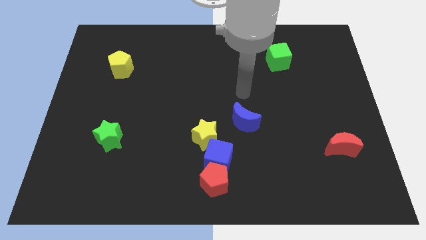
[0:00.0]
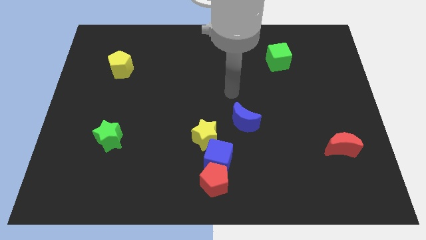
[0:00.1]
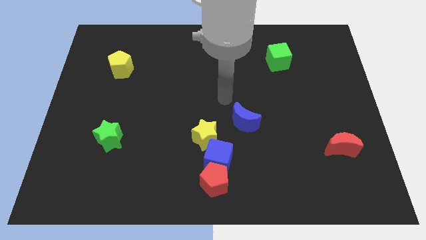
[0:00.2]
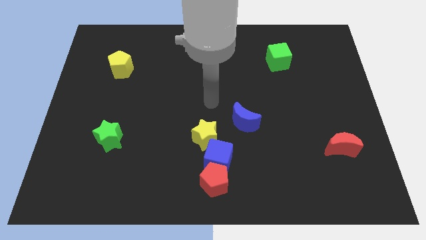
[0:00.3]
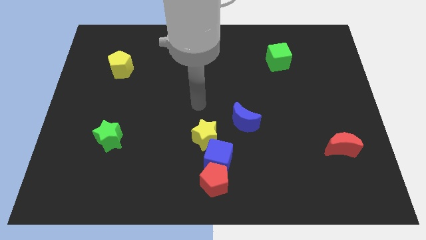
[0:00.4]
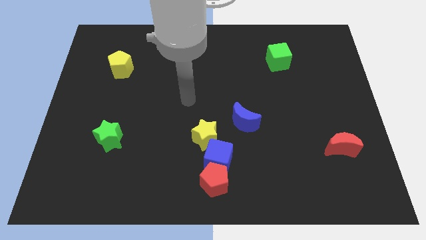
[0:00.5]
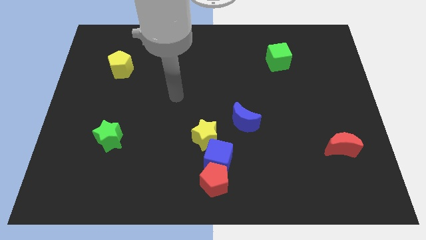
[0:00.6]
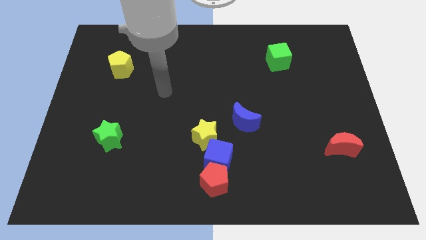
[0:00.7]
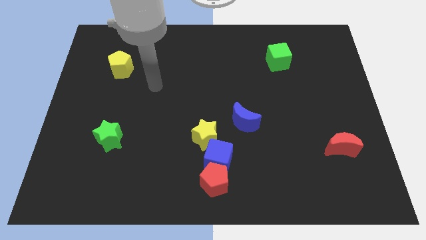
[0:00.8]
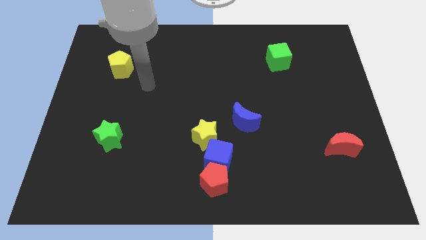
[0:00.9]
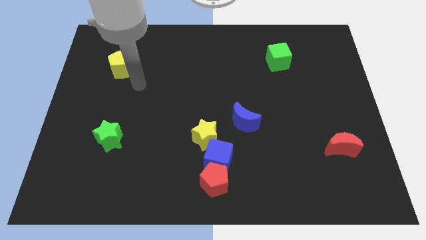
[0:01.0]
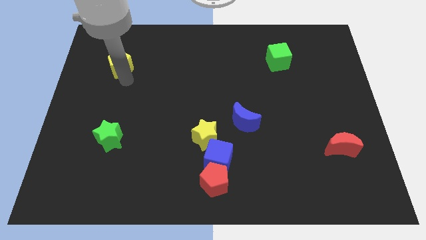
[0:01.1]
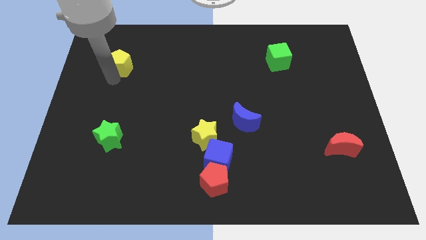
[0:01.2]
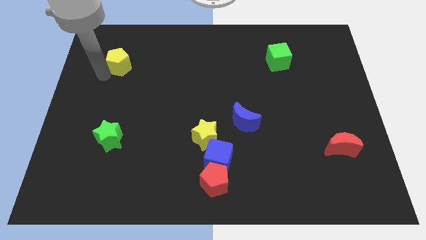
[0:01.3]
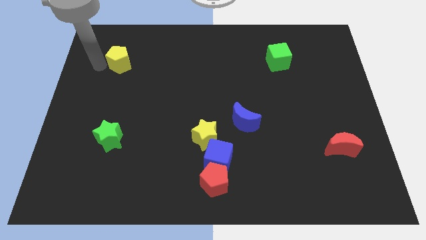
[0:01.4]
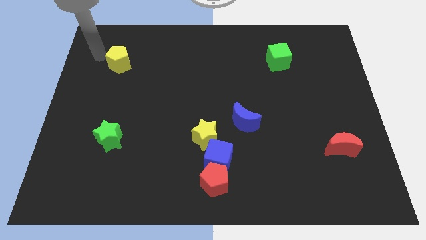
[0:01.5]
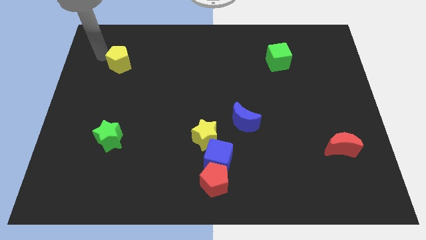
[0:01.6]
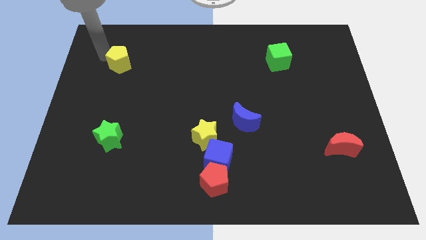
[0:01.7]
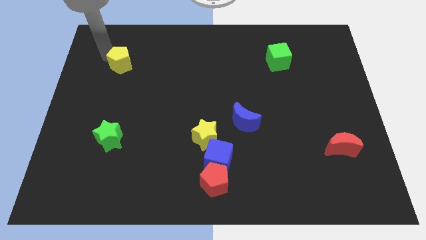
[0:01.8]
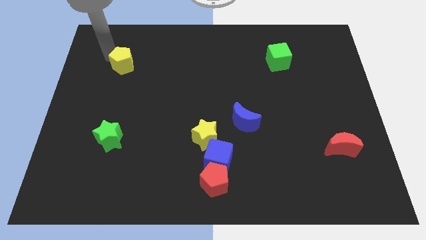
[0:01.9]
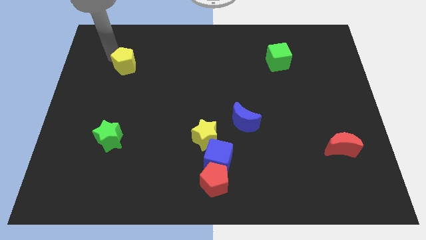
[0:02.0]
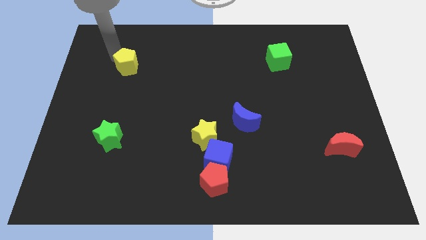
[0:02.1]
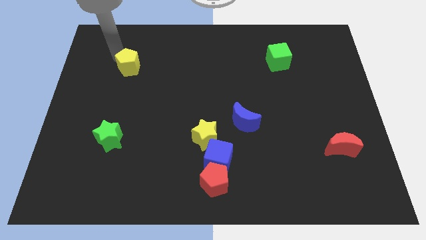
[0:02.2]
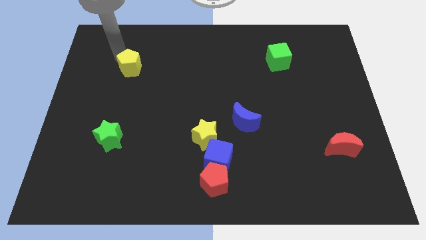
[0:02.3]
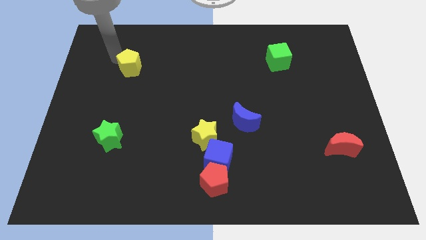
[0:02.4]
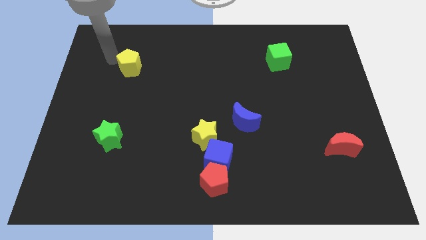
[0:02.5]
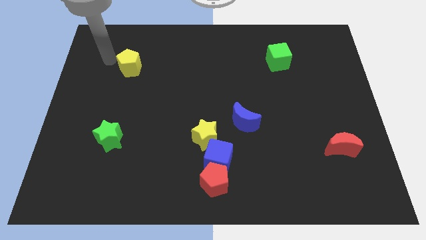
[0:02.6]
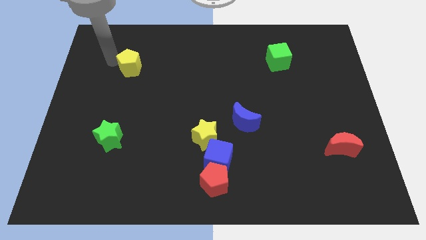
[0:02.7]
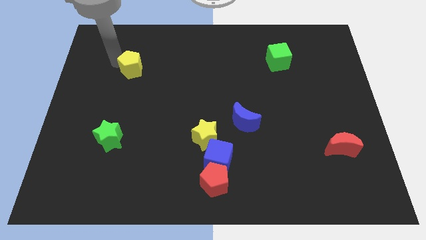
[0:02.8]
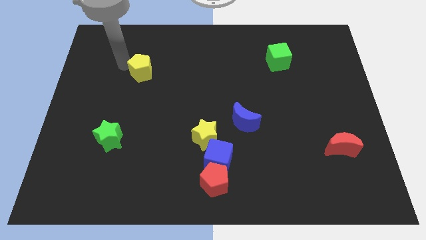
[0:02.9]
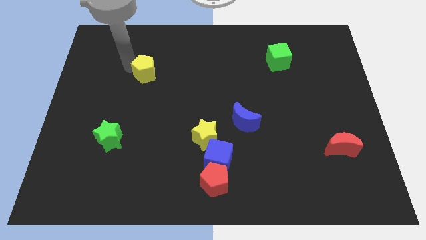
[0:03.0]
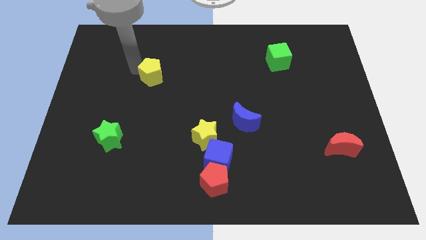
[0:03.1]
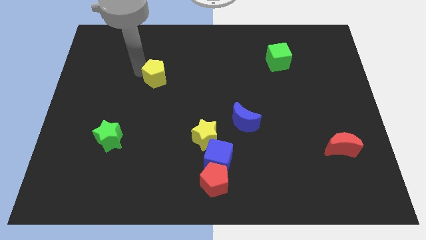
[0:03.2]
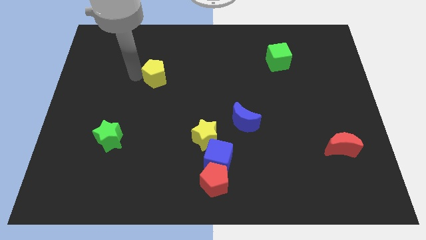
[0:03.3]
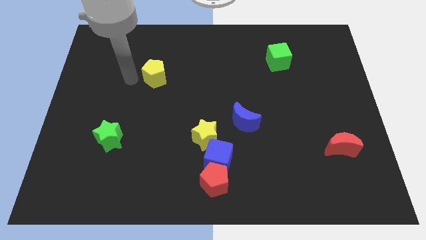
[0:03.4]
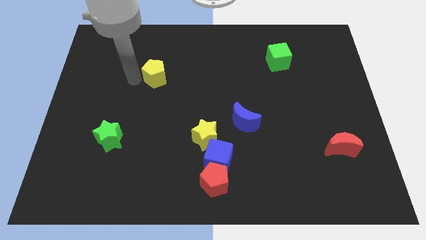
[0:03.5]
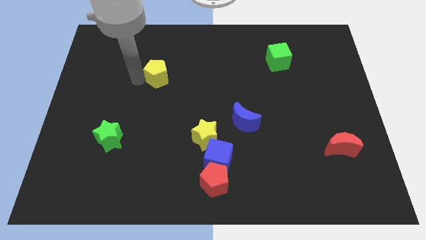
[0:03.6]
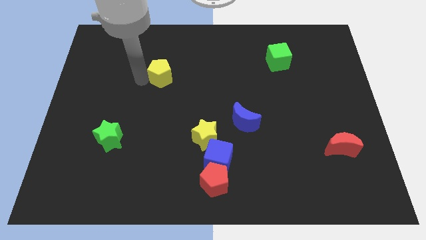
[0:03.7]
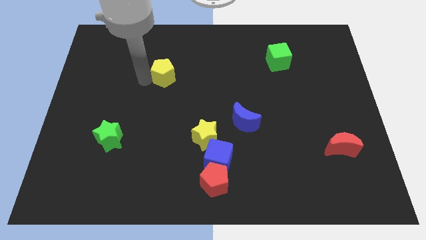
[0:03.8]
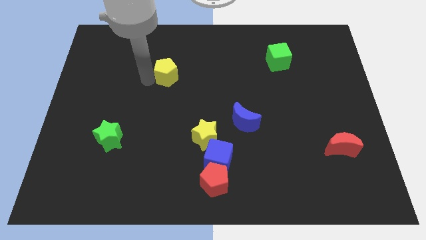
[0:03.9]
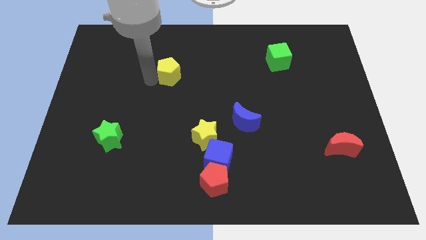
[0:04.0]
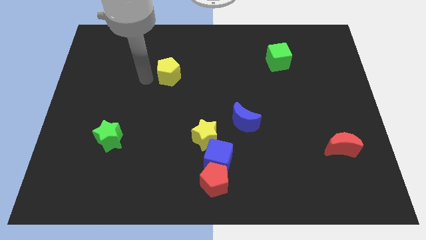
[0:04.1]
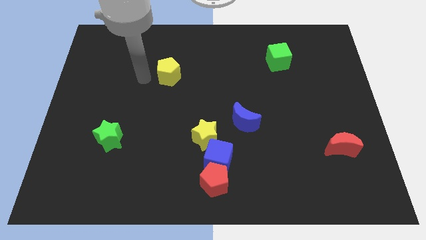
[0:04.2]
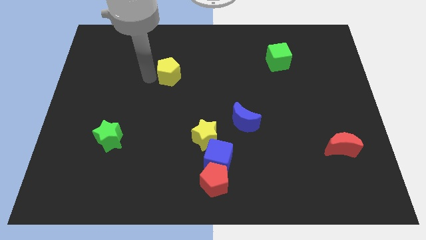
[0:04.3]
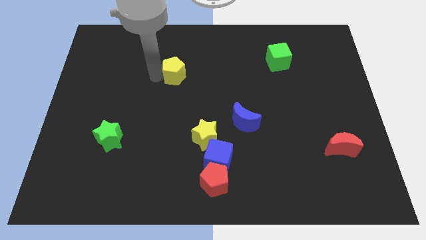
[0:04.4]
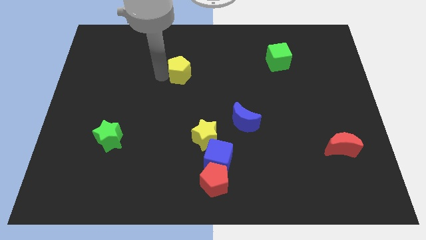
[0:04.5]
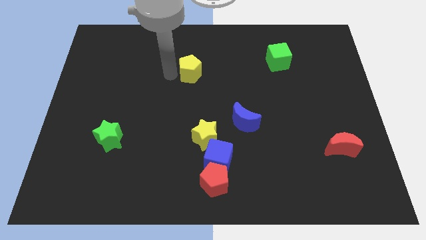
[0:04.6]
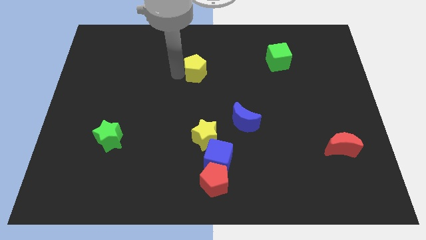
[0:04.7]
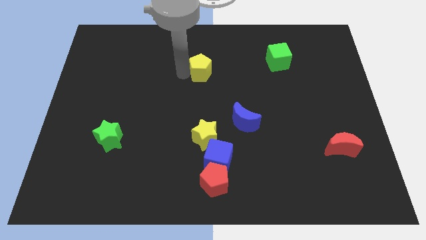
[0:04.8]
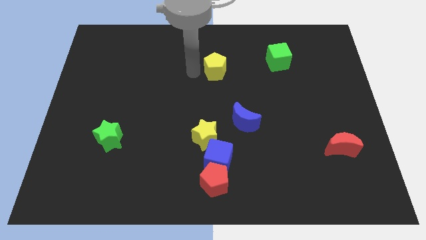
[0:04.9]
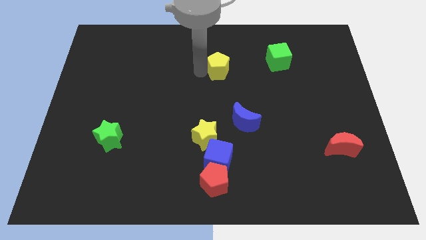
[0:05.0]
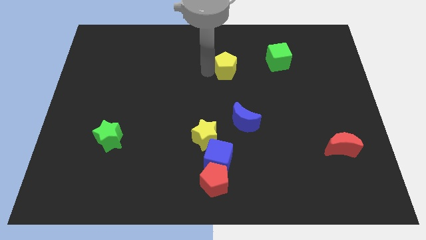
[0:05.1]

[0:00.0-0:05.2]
push the yellow pentagon just left of the green cube

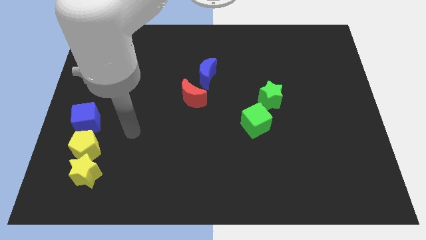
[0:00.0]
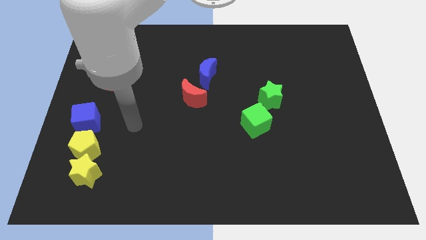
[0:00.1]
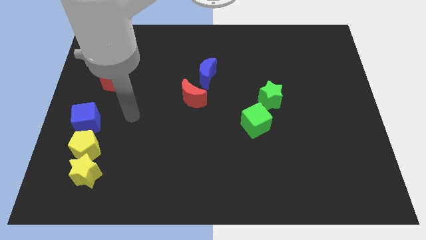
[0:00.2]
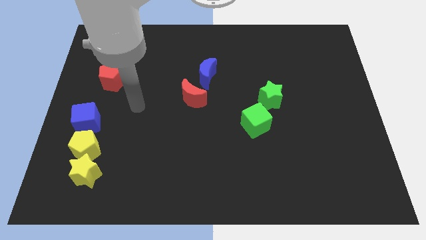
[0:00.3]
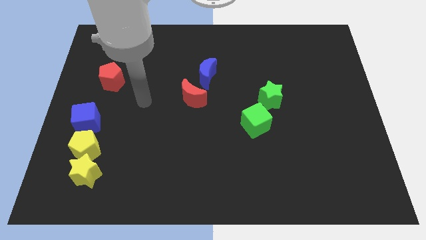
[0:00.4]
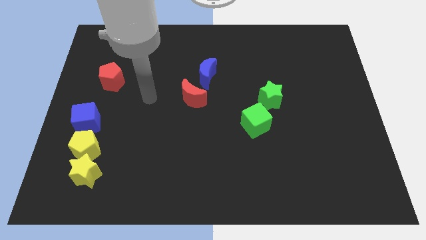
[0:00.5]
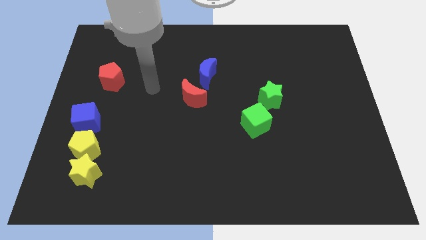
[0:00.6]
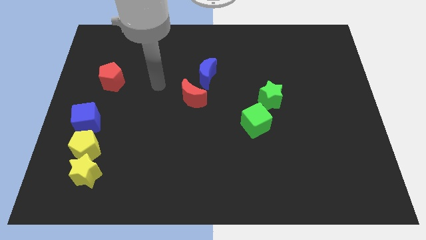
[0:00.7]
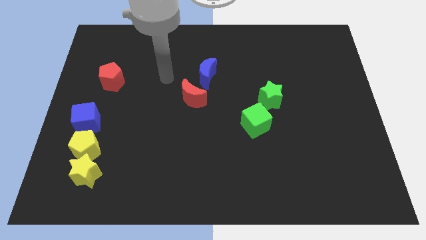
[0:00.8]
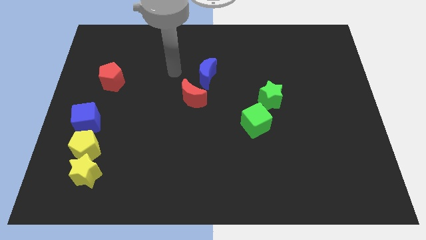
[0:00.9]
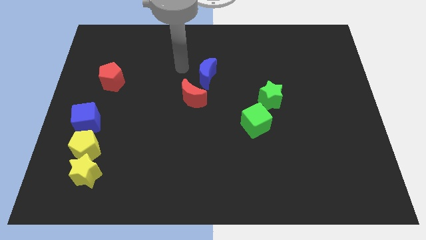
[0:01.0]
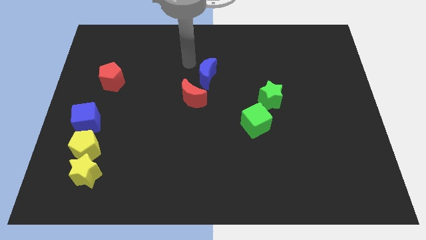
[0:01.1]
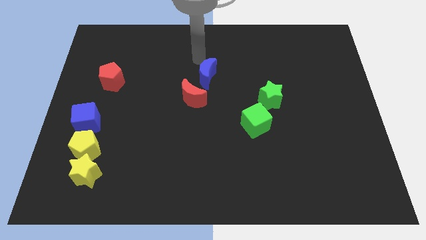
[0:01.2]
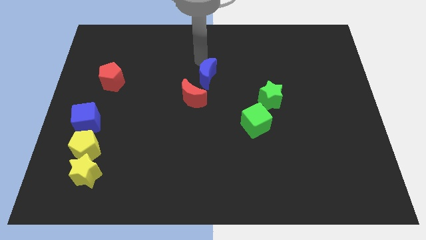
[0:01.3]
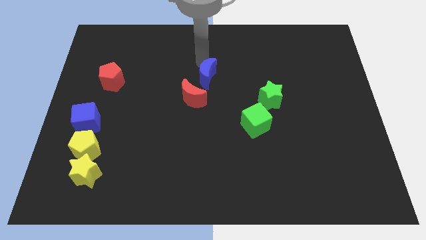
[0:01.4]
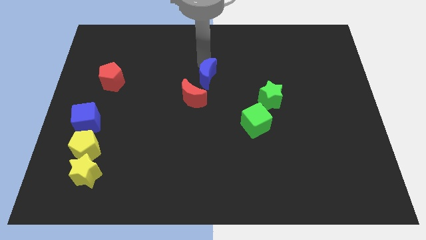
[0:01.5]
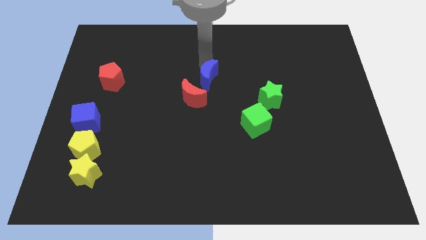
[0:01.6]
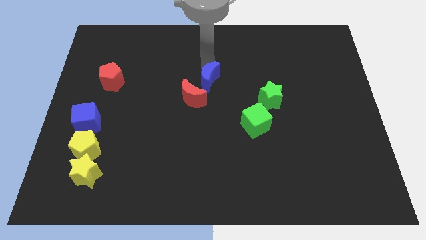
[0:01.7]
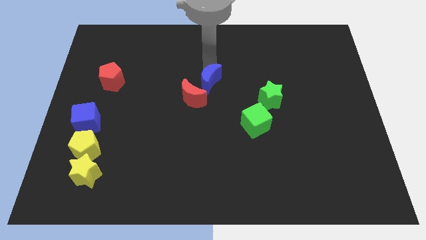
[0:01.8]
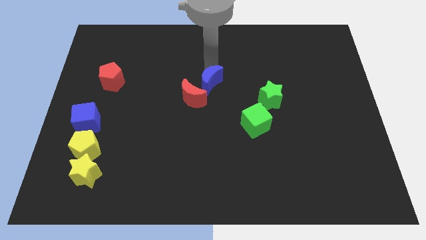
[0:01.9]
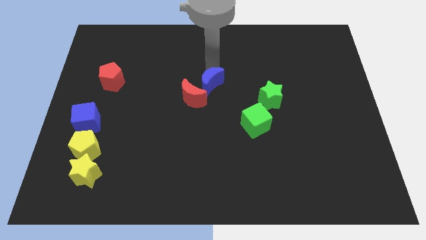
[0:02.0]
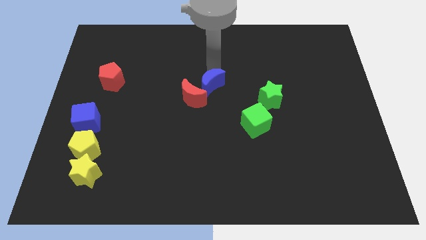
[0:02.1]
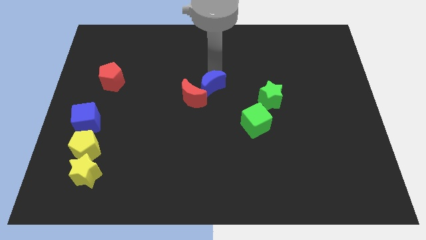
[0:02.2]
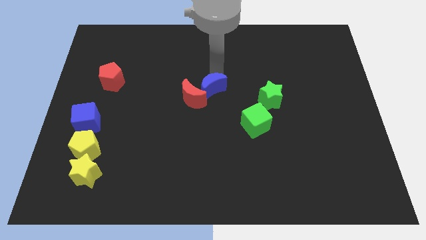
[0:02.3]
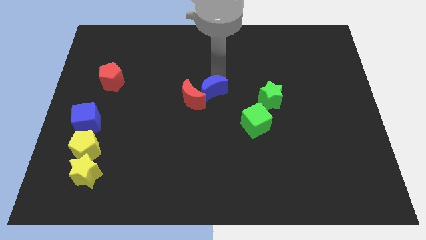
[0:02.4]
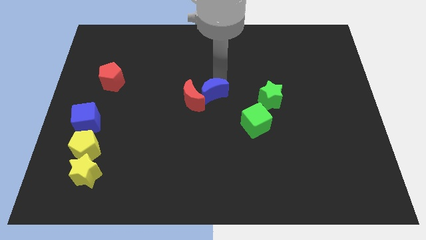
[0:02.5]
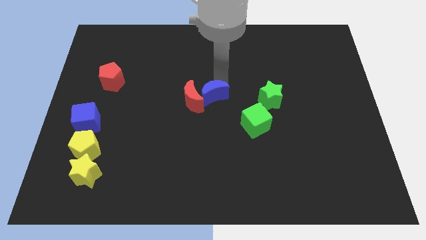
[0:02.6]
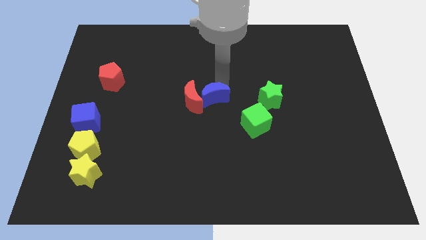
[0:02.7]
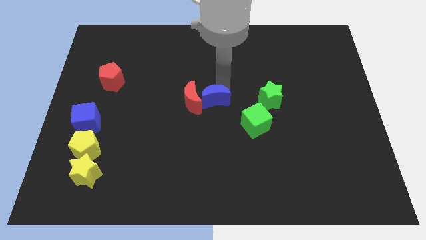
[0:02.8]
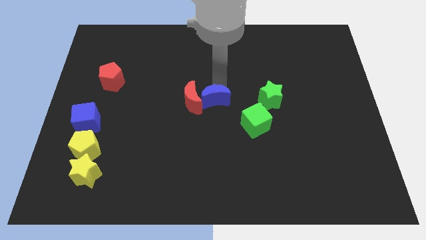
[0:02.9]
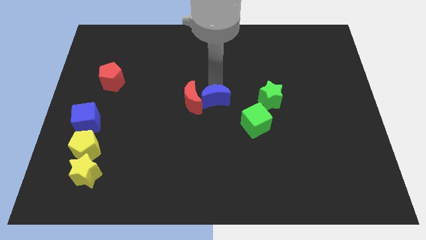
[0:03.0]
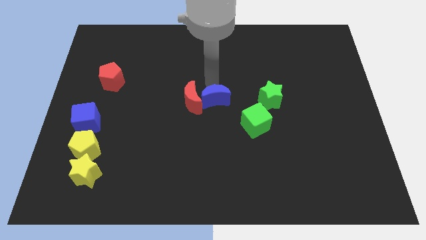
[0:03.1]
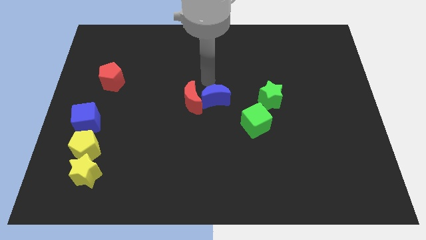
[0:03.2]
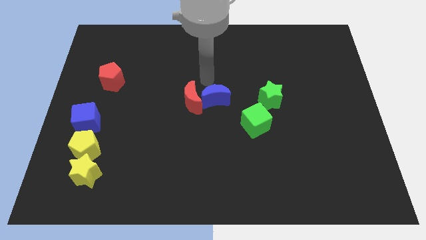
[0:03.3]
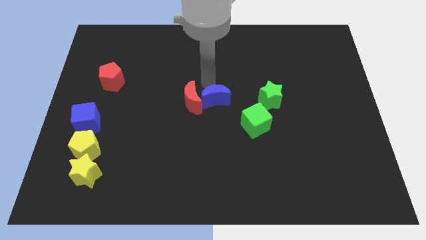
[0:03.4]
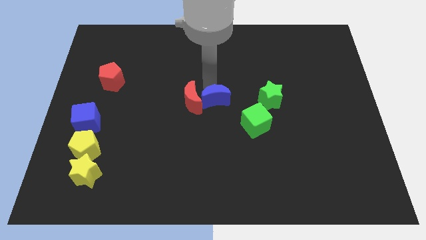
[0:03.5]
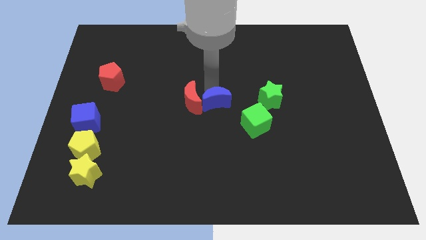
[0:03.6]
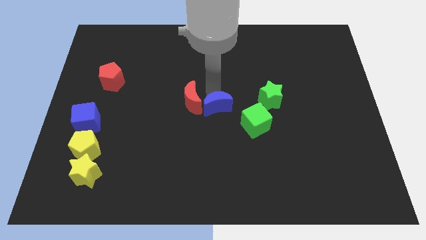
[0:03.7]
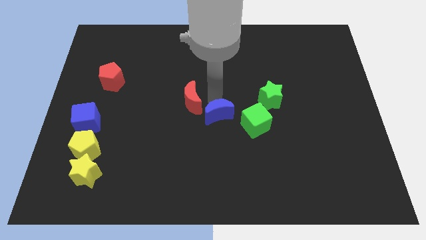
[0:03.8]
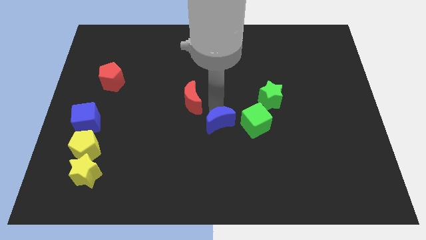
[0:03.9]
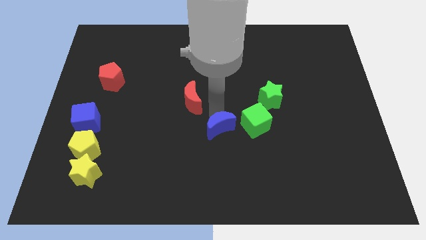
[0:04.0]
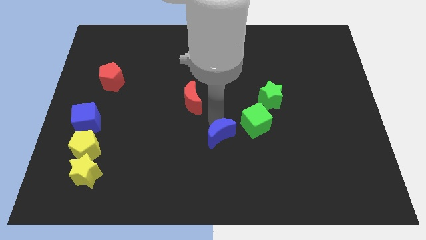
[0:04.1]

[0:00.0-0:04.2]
slide the blue moon to the bottom left side of the green cube
